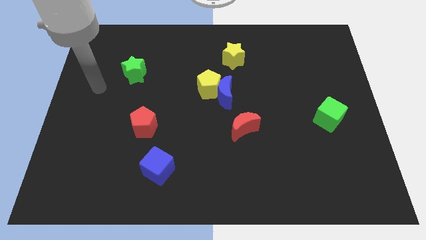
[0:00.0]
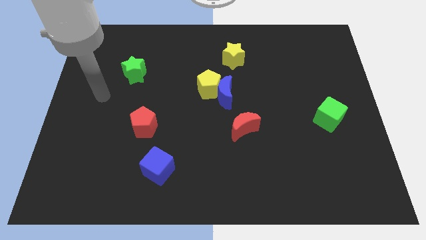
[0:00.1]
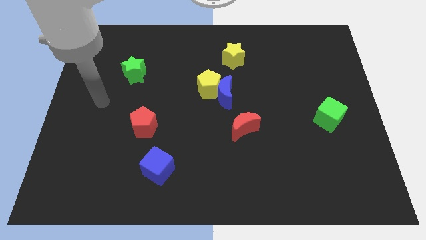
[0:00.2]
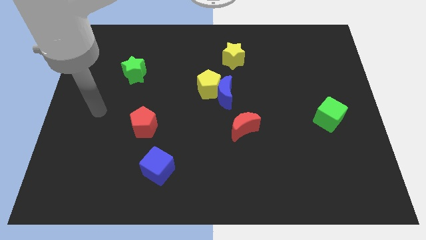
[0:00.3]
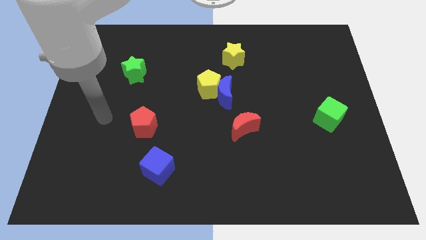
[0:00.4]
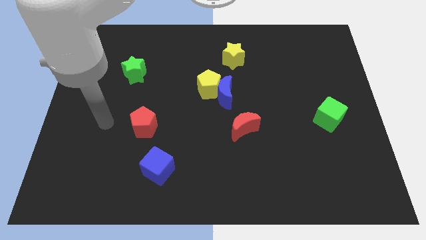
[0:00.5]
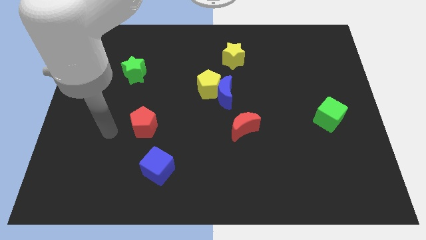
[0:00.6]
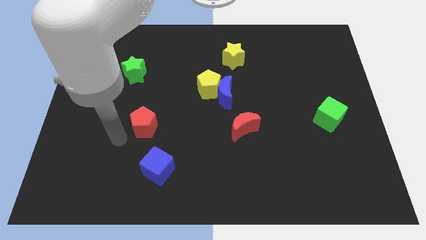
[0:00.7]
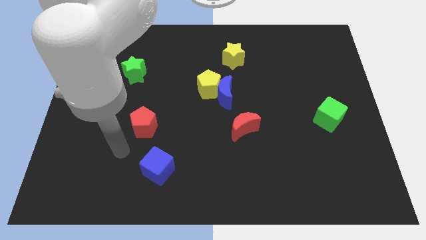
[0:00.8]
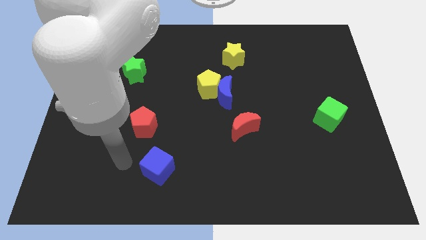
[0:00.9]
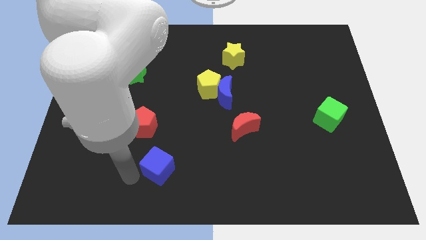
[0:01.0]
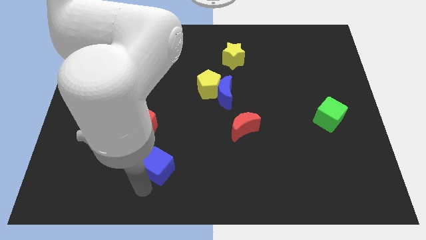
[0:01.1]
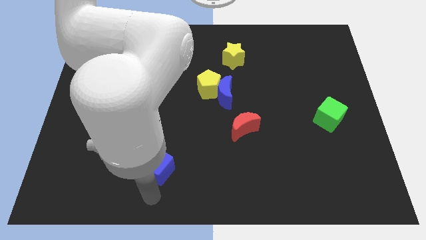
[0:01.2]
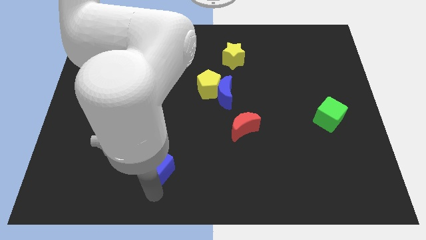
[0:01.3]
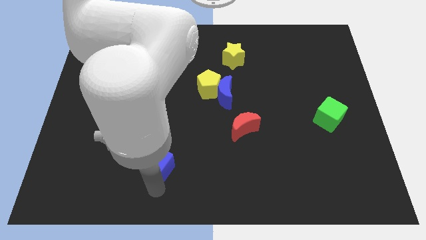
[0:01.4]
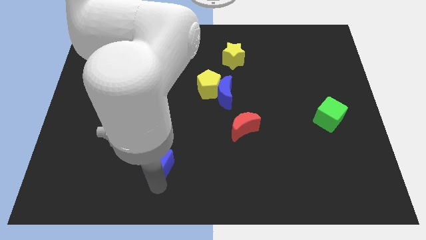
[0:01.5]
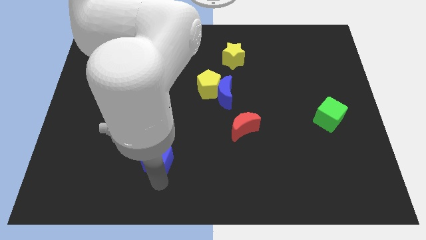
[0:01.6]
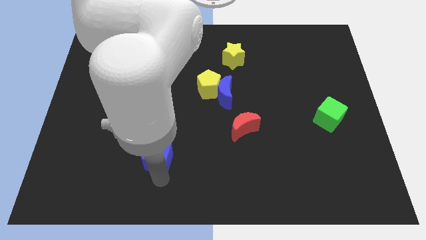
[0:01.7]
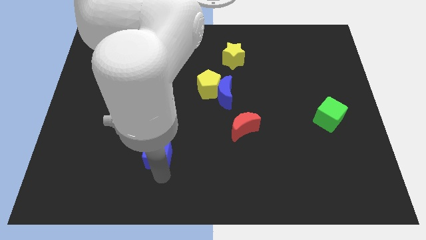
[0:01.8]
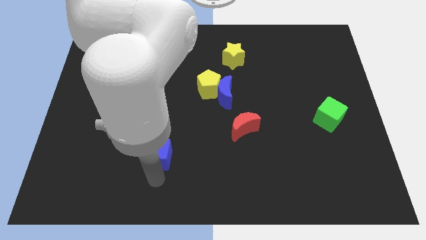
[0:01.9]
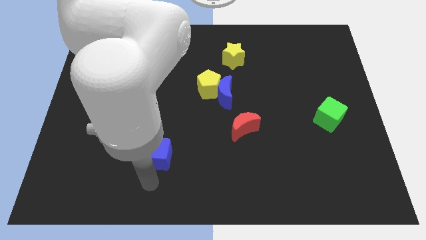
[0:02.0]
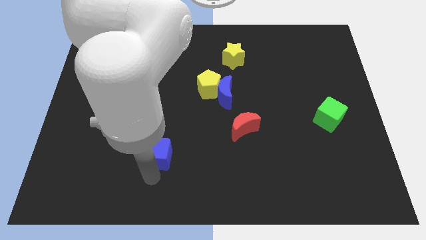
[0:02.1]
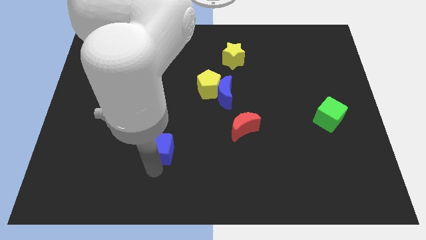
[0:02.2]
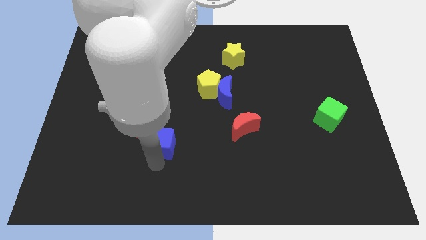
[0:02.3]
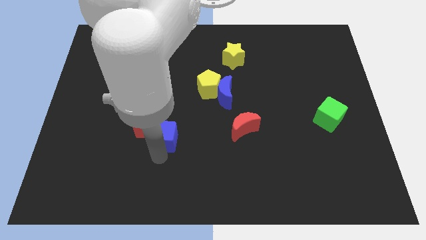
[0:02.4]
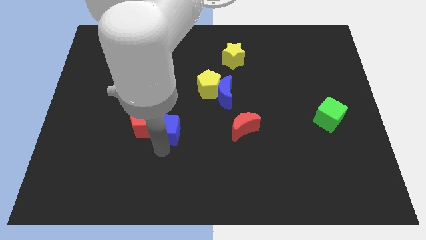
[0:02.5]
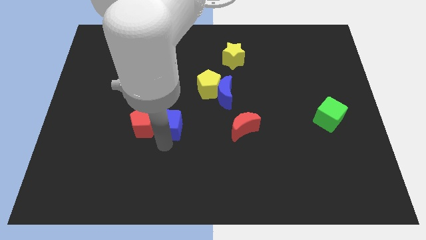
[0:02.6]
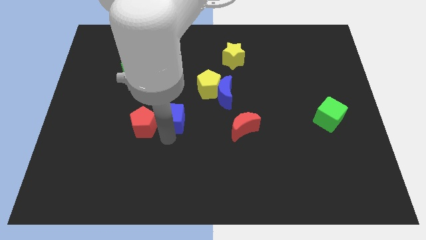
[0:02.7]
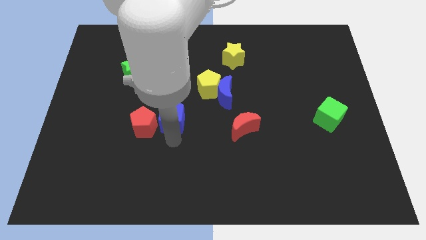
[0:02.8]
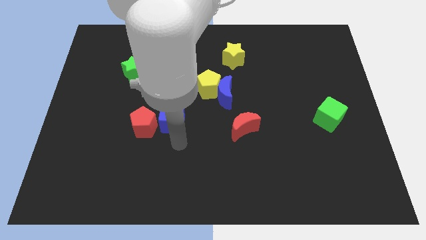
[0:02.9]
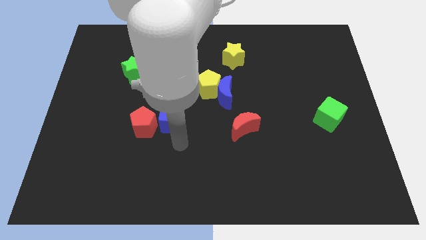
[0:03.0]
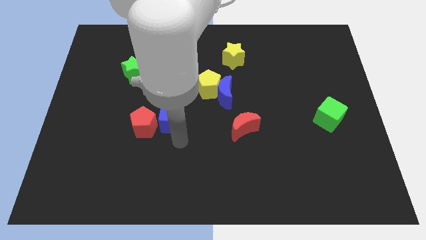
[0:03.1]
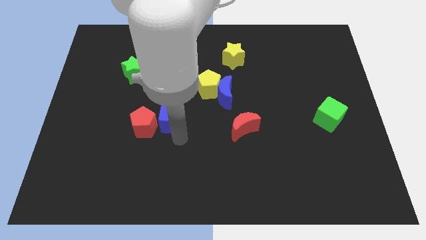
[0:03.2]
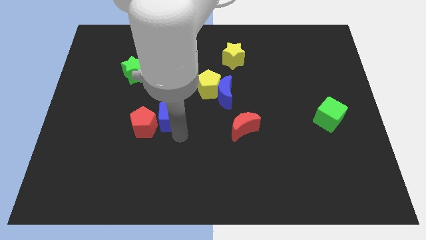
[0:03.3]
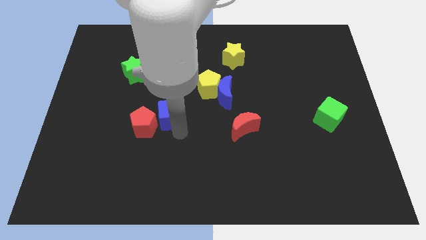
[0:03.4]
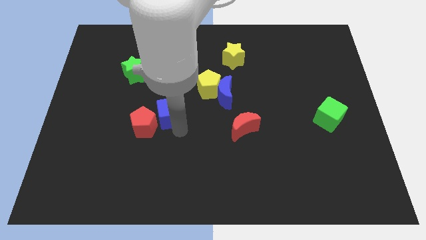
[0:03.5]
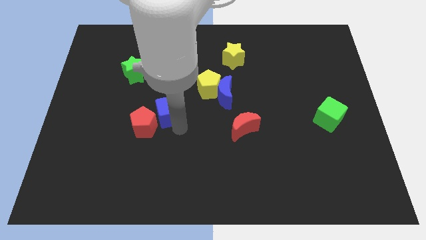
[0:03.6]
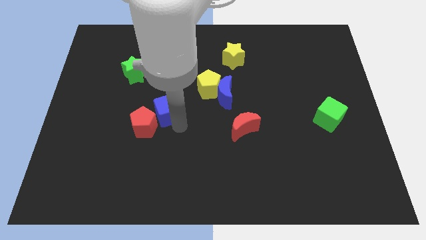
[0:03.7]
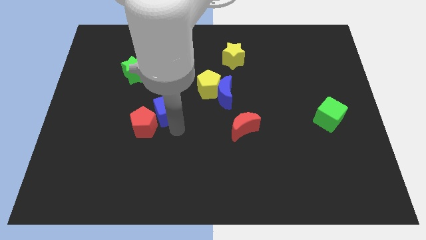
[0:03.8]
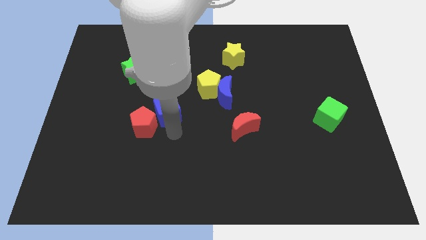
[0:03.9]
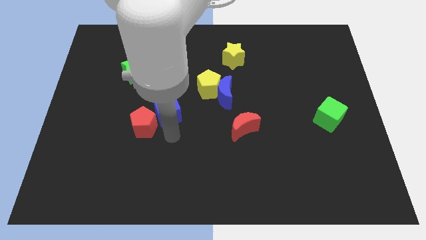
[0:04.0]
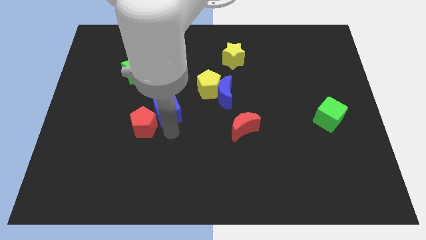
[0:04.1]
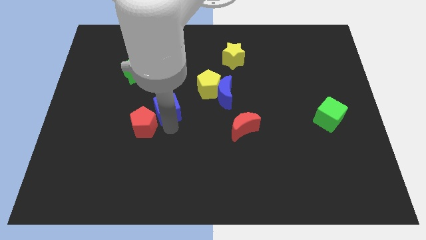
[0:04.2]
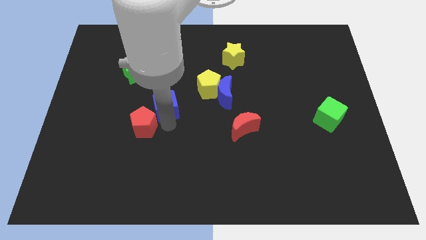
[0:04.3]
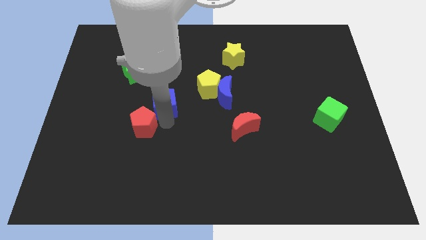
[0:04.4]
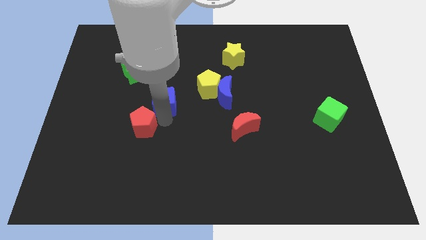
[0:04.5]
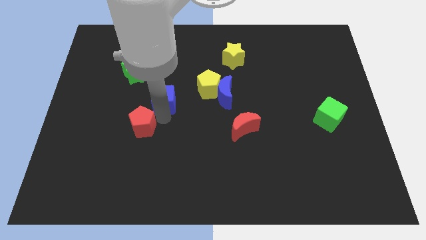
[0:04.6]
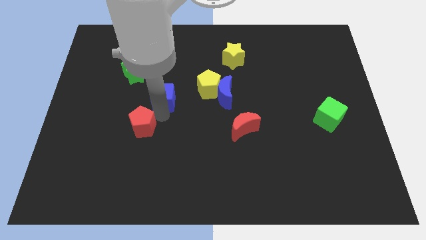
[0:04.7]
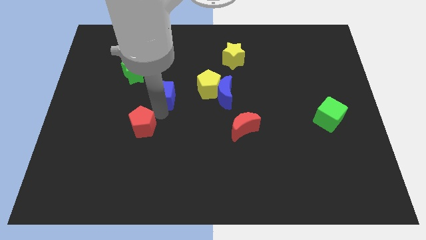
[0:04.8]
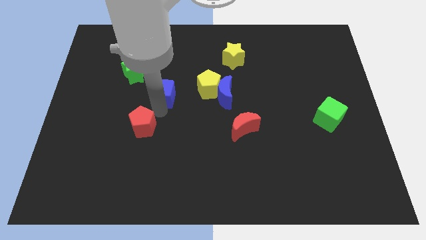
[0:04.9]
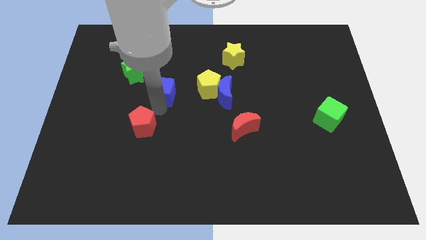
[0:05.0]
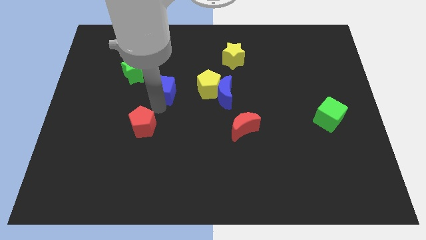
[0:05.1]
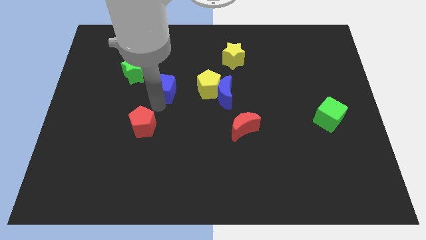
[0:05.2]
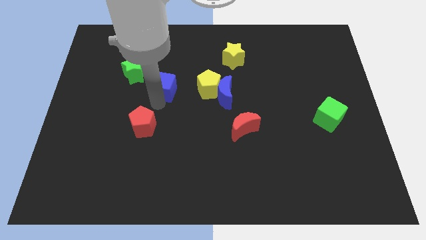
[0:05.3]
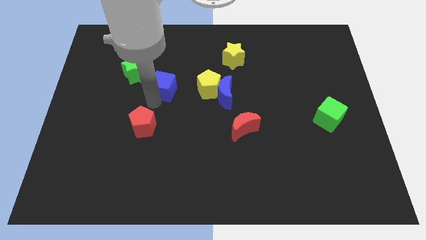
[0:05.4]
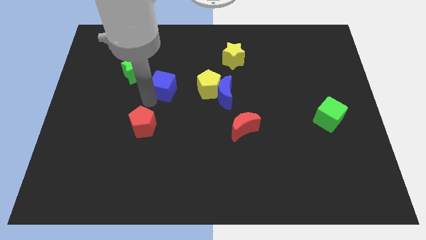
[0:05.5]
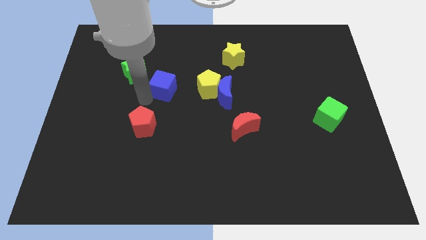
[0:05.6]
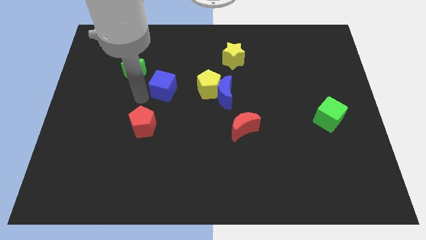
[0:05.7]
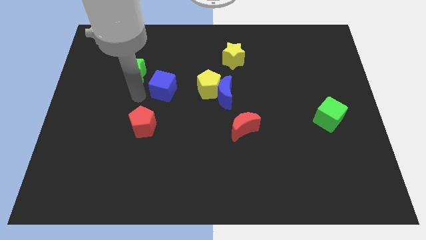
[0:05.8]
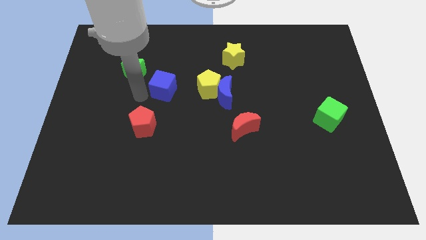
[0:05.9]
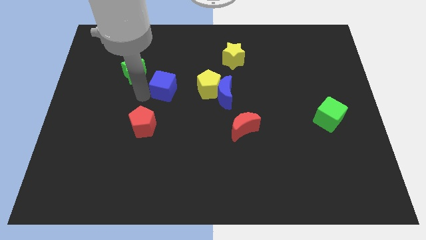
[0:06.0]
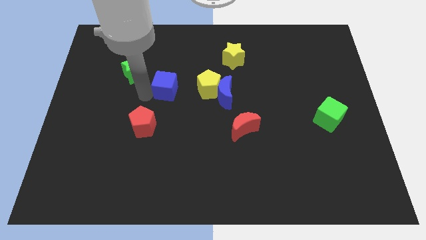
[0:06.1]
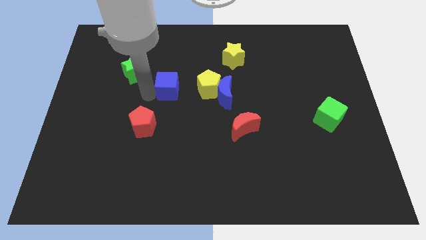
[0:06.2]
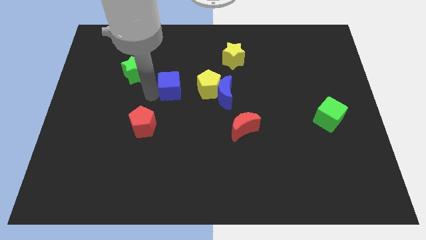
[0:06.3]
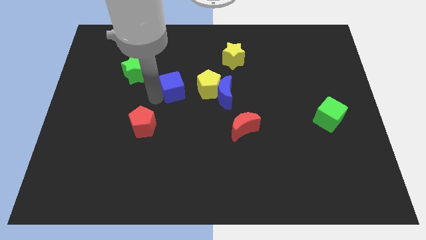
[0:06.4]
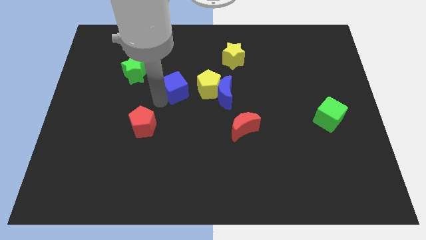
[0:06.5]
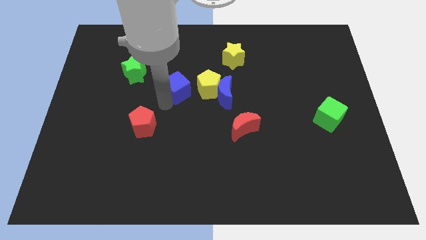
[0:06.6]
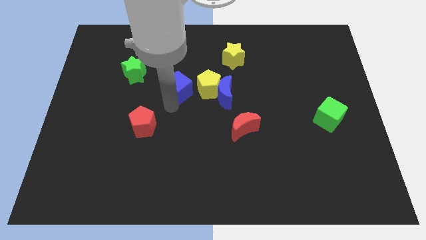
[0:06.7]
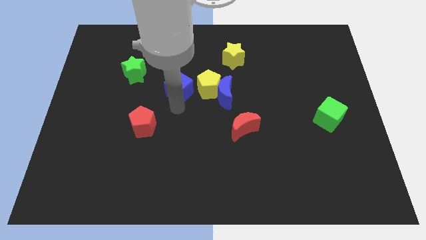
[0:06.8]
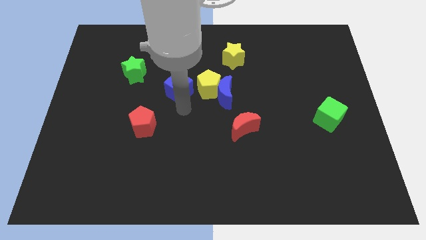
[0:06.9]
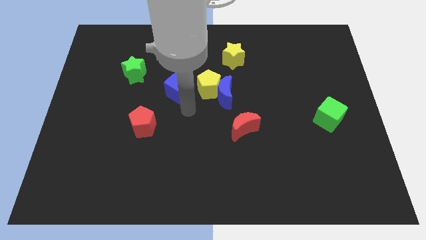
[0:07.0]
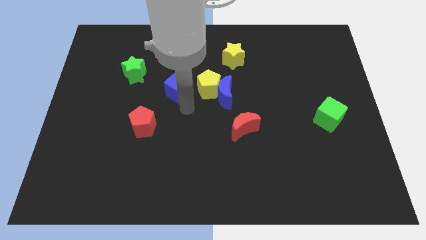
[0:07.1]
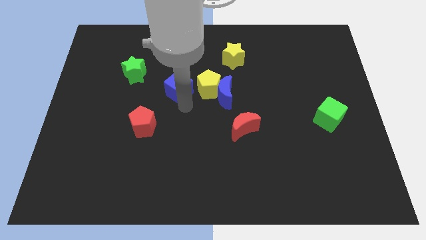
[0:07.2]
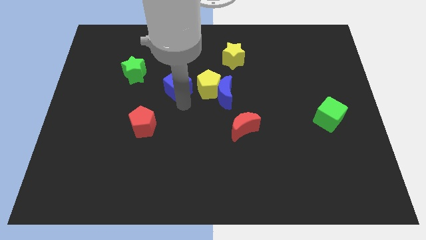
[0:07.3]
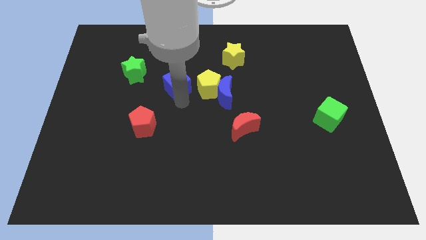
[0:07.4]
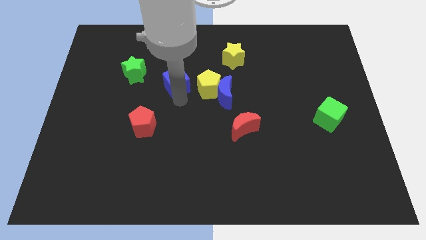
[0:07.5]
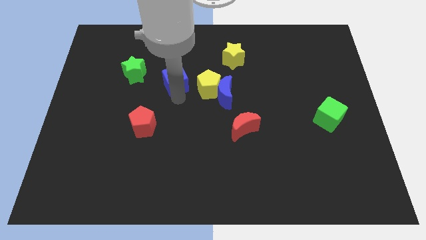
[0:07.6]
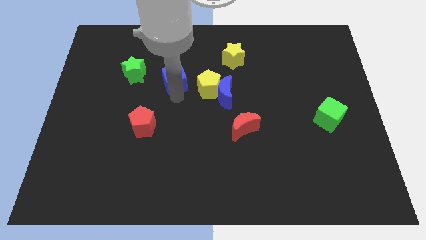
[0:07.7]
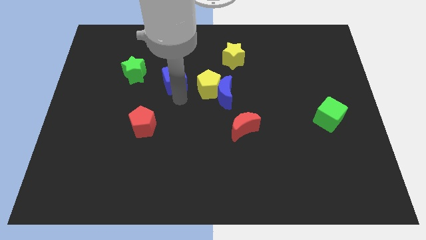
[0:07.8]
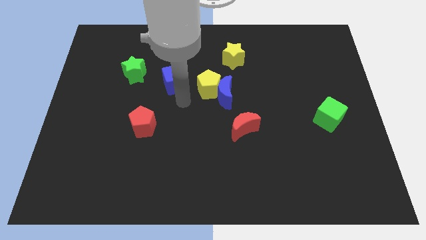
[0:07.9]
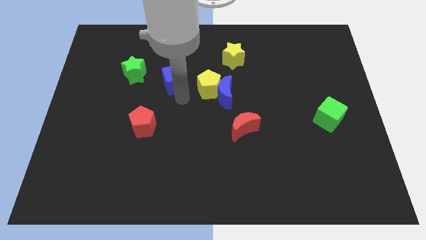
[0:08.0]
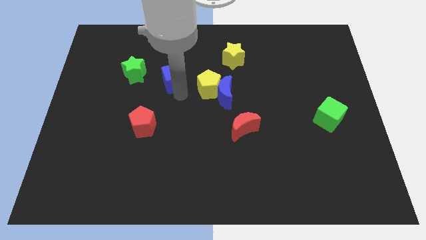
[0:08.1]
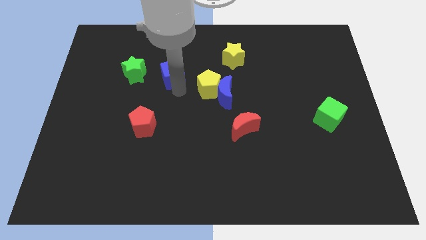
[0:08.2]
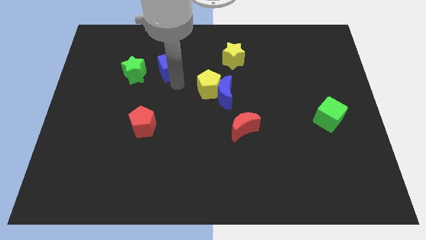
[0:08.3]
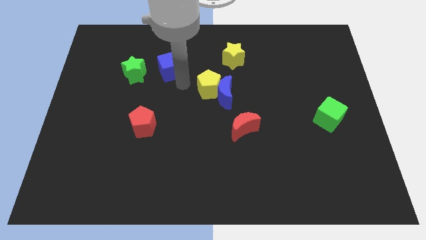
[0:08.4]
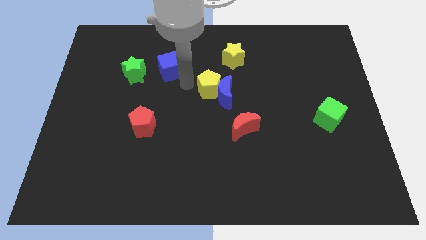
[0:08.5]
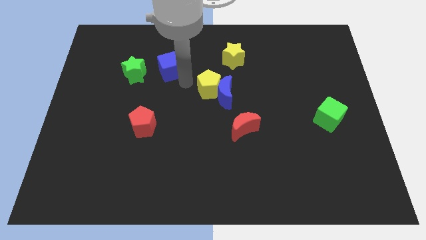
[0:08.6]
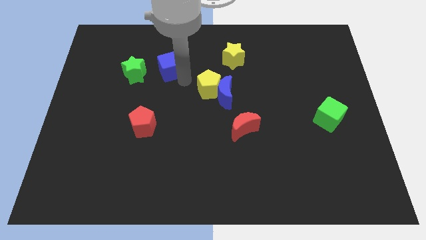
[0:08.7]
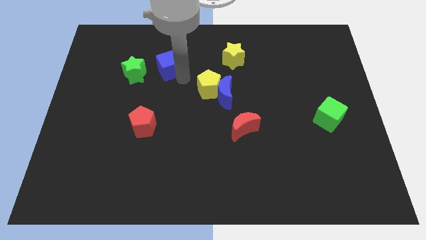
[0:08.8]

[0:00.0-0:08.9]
push the blue cube to the top right side of the green star
